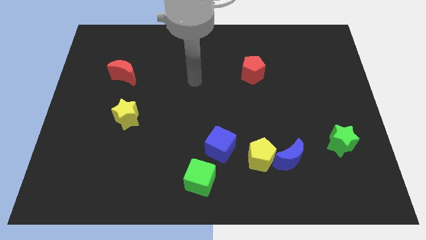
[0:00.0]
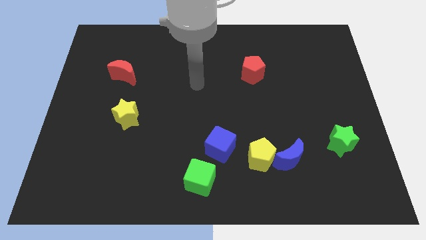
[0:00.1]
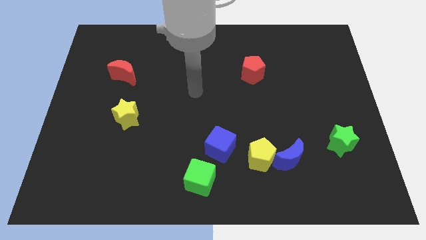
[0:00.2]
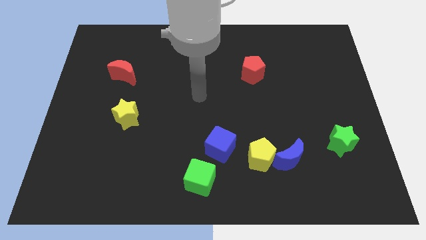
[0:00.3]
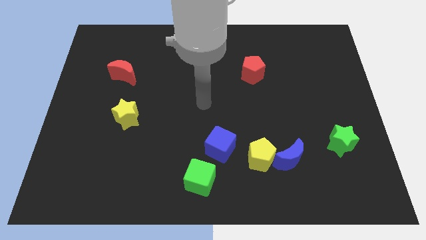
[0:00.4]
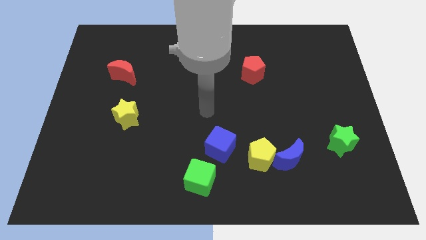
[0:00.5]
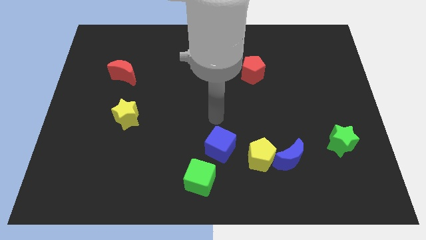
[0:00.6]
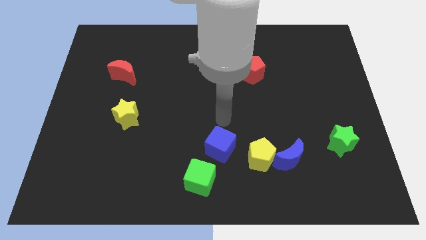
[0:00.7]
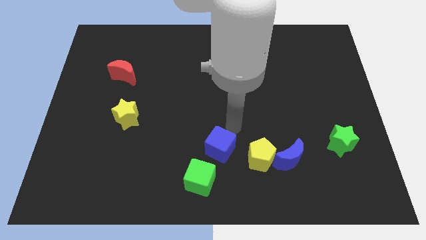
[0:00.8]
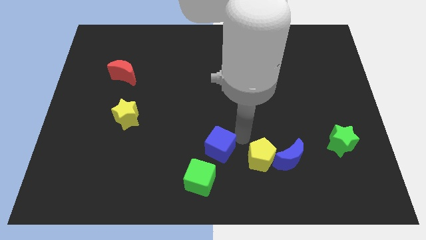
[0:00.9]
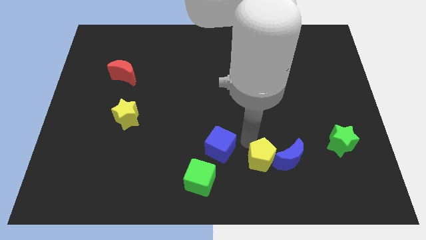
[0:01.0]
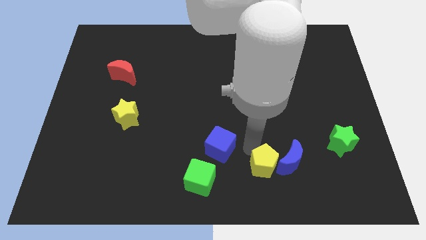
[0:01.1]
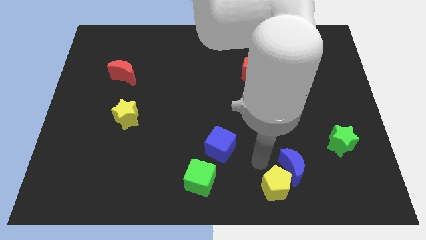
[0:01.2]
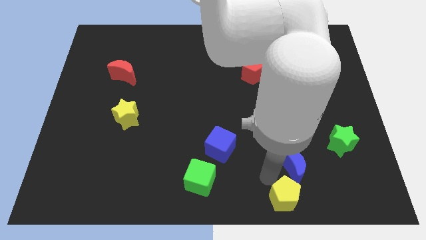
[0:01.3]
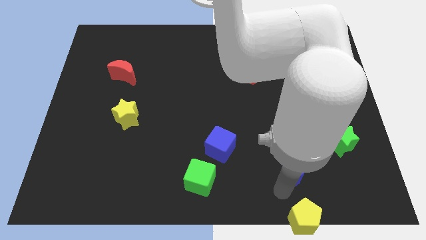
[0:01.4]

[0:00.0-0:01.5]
separate the blue moon from the yellow pentagon

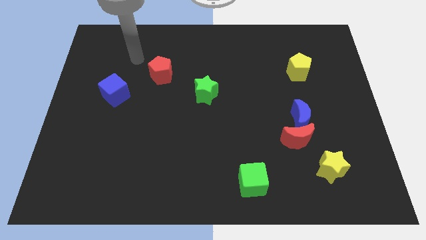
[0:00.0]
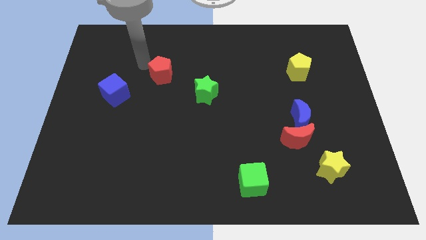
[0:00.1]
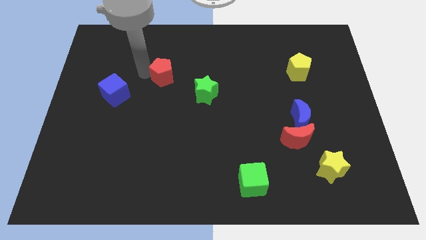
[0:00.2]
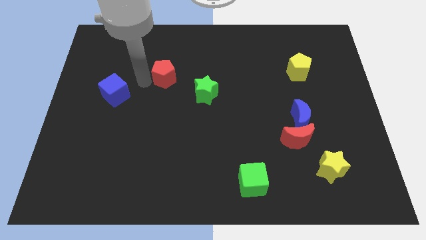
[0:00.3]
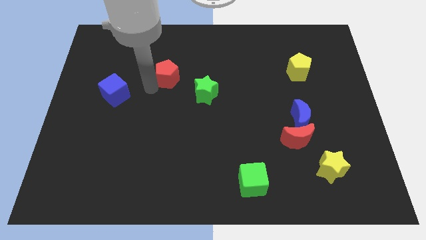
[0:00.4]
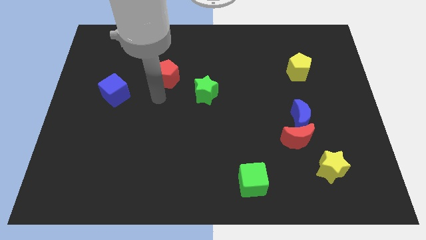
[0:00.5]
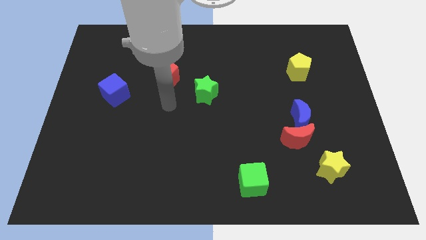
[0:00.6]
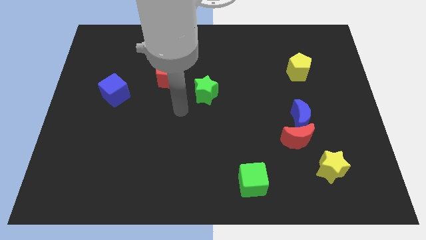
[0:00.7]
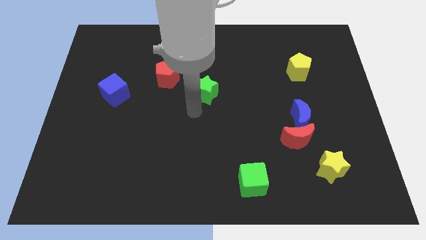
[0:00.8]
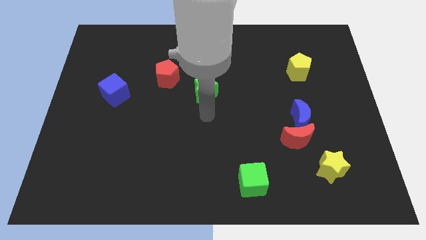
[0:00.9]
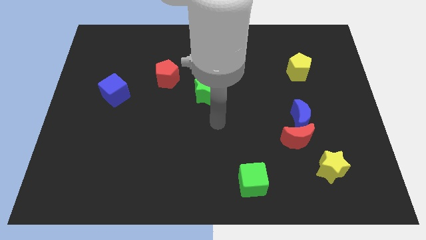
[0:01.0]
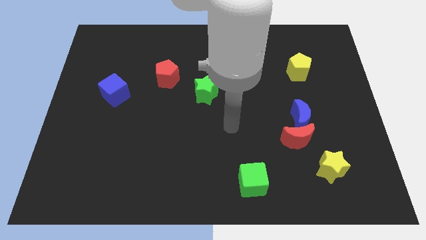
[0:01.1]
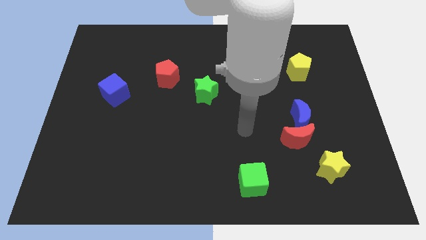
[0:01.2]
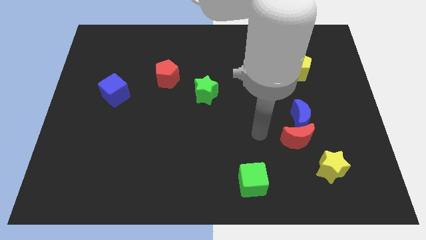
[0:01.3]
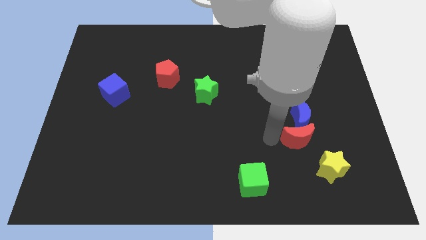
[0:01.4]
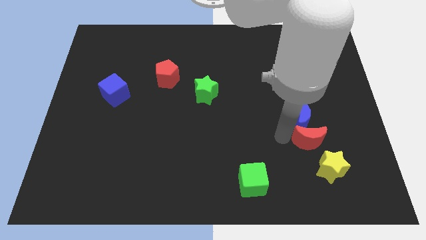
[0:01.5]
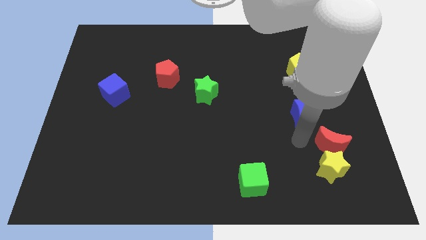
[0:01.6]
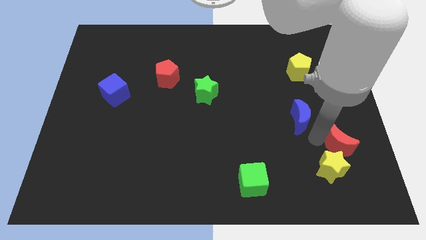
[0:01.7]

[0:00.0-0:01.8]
pull the blue moon apart from the red moon

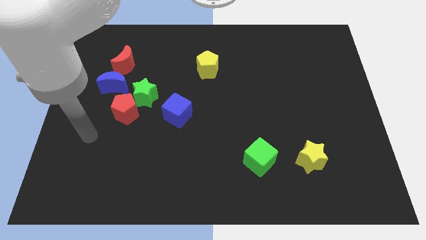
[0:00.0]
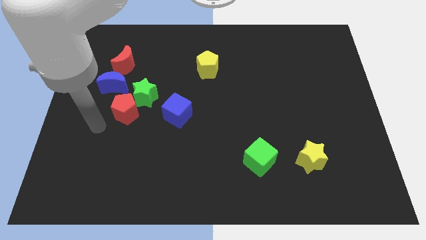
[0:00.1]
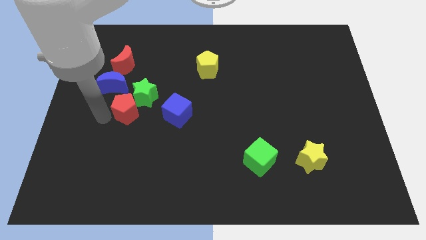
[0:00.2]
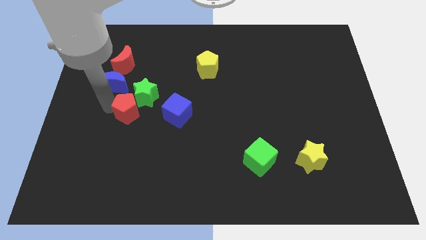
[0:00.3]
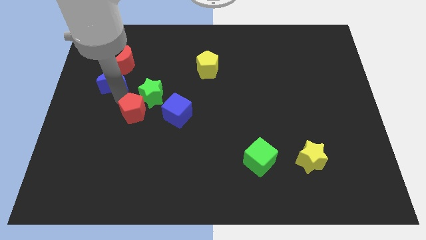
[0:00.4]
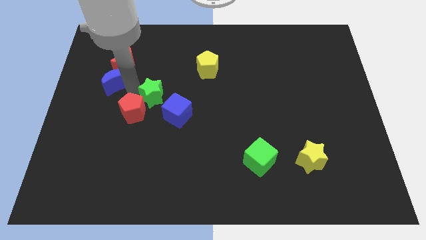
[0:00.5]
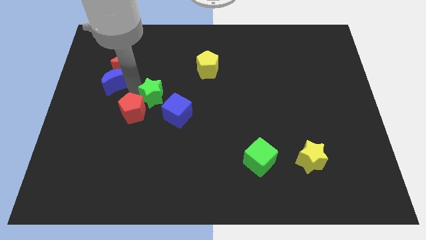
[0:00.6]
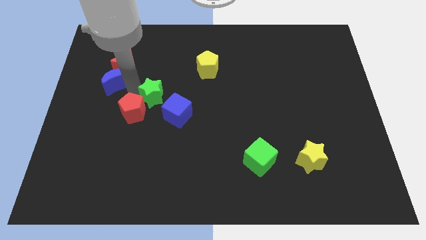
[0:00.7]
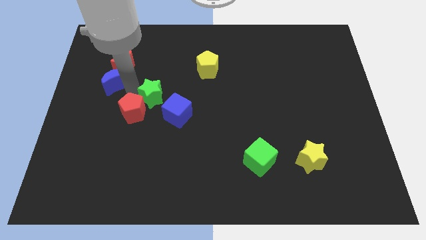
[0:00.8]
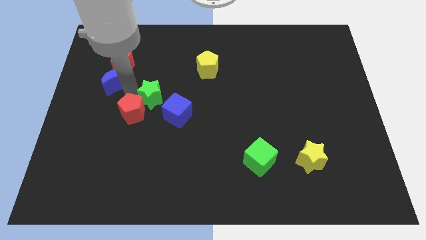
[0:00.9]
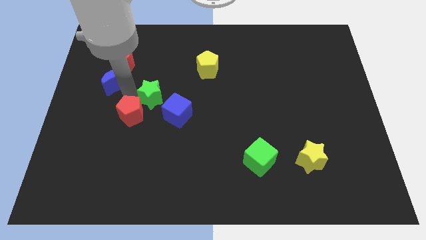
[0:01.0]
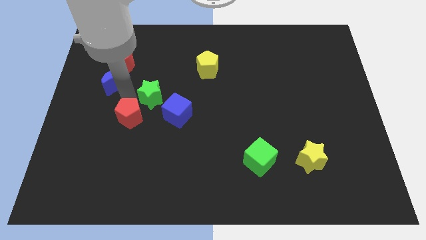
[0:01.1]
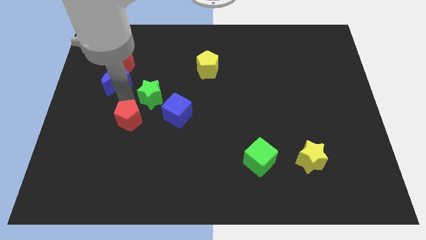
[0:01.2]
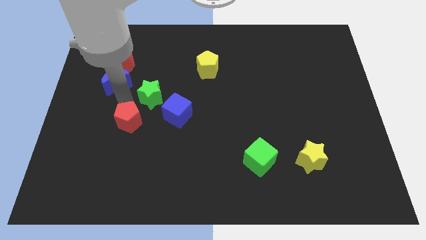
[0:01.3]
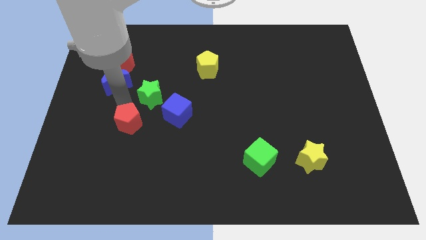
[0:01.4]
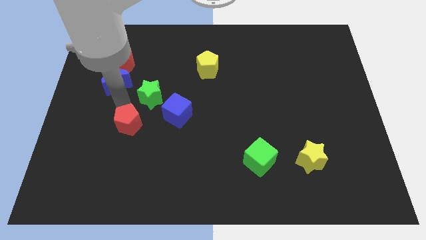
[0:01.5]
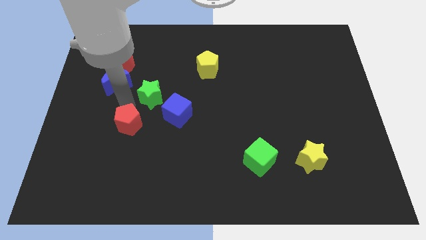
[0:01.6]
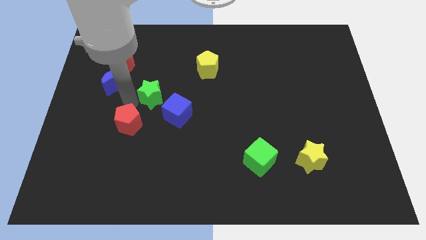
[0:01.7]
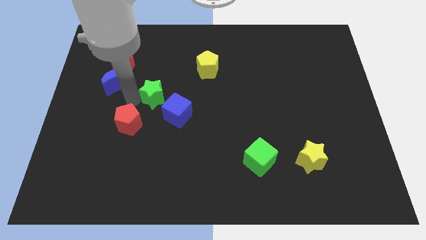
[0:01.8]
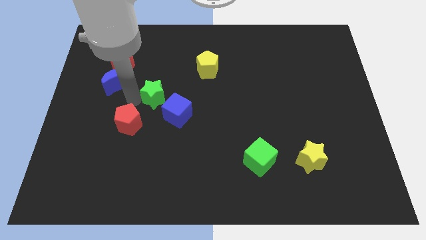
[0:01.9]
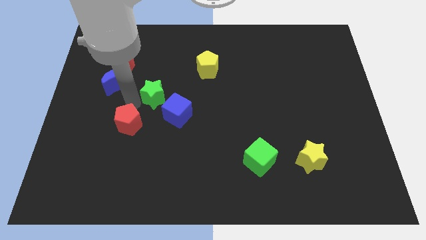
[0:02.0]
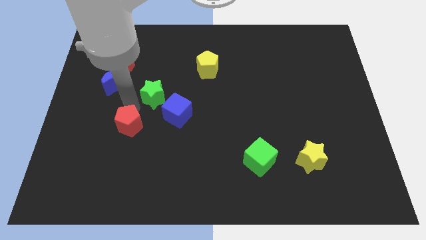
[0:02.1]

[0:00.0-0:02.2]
move the red pentagon away from the green star and blue moon

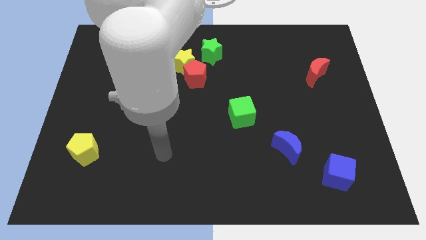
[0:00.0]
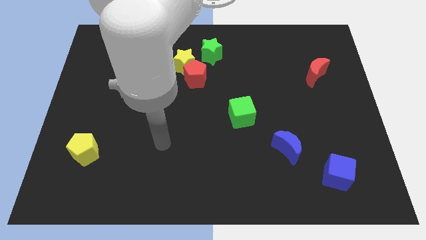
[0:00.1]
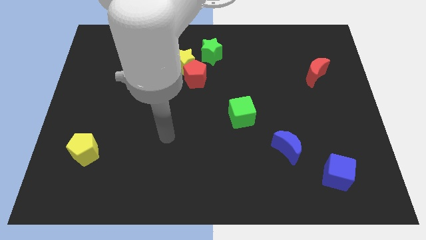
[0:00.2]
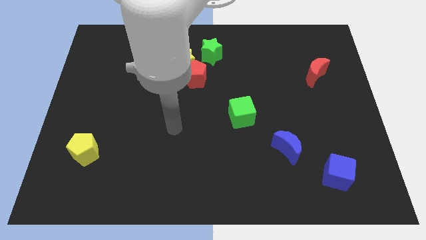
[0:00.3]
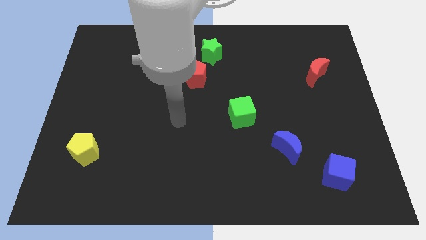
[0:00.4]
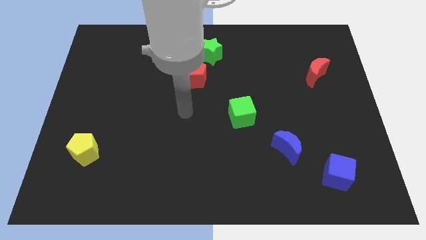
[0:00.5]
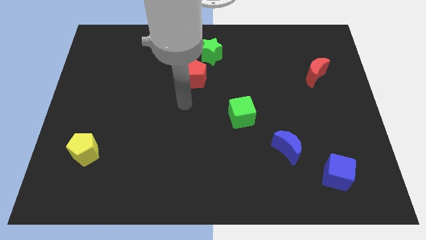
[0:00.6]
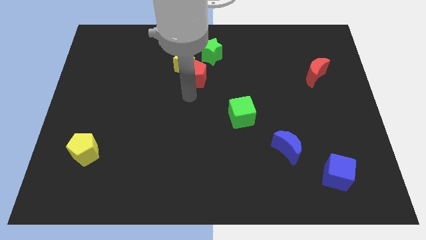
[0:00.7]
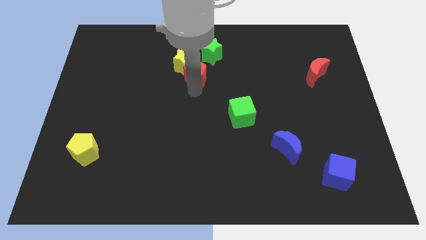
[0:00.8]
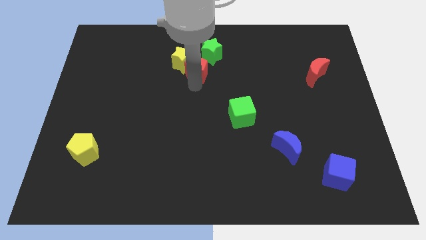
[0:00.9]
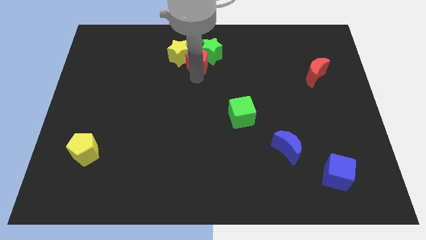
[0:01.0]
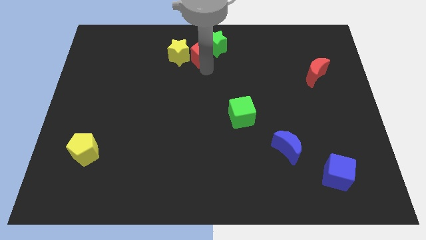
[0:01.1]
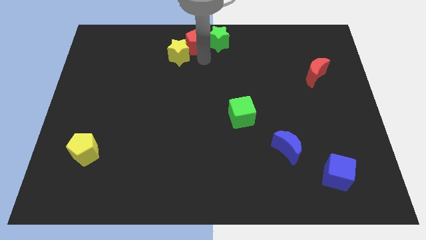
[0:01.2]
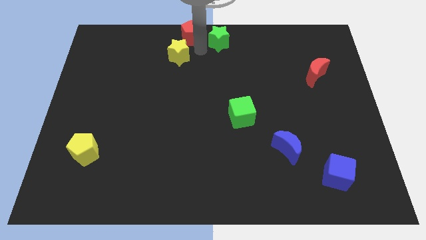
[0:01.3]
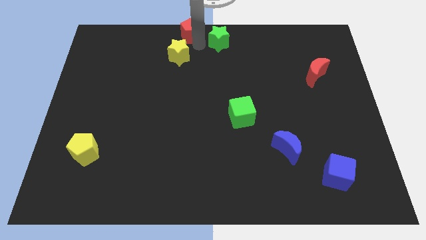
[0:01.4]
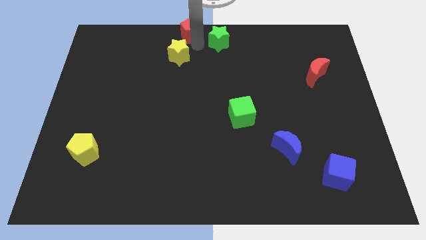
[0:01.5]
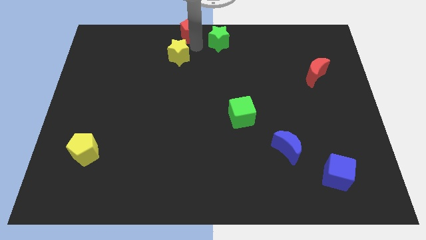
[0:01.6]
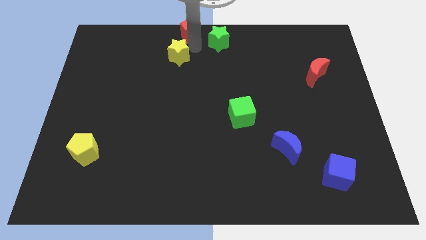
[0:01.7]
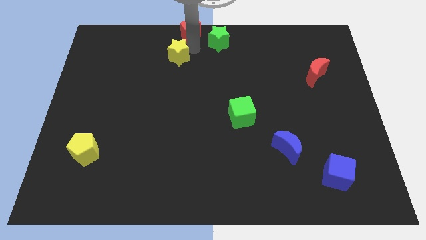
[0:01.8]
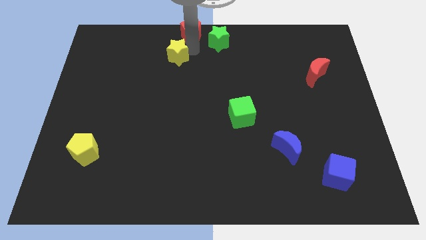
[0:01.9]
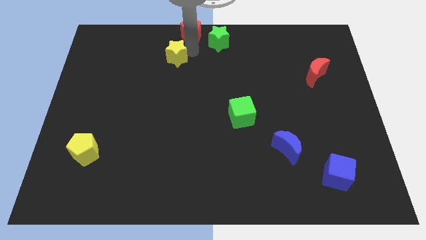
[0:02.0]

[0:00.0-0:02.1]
pull the yellow star apart from the red pentagon and green star

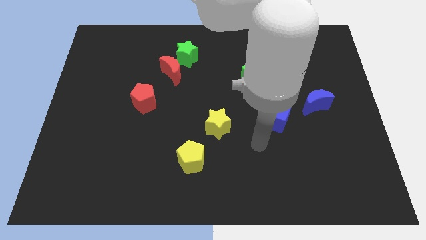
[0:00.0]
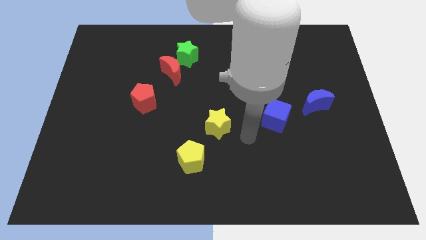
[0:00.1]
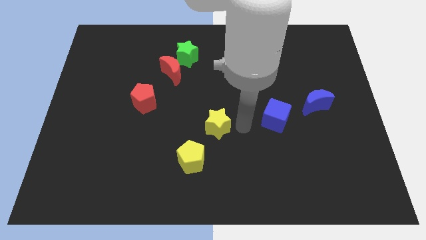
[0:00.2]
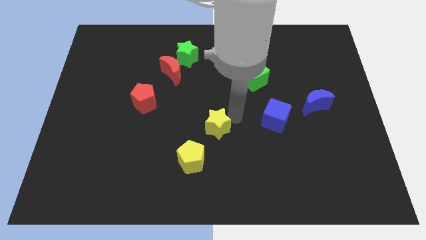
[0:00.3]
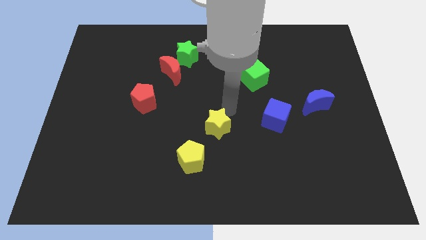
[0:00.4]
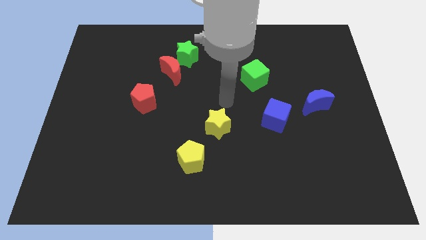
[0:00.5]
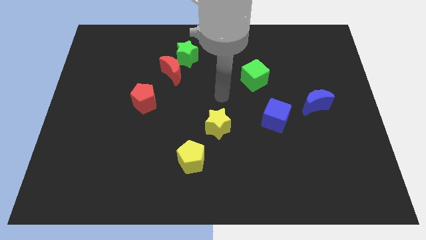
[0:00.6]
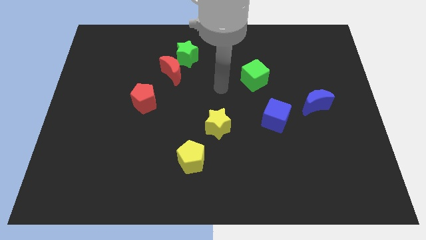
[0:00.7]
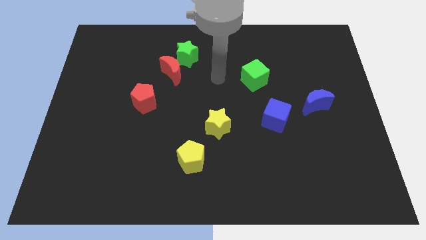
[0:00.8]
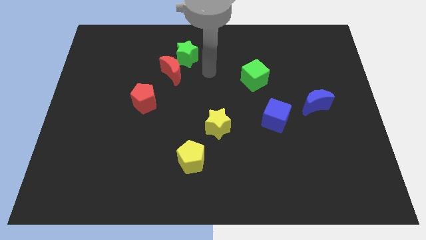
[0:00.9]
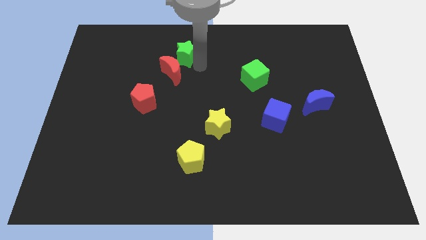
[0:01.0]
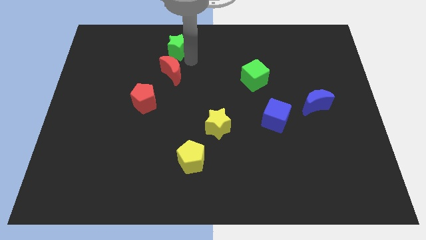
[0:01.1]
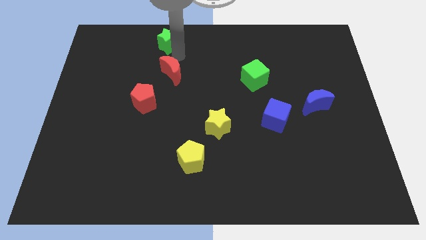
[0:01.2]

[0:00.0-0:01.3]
move the red moon away from the green star

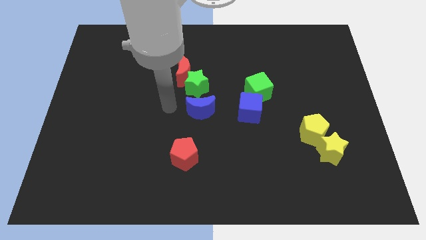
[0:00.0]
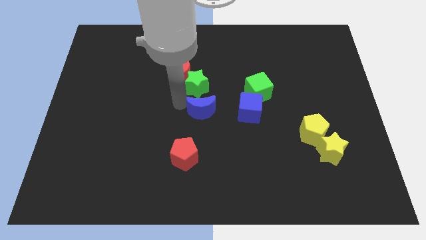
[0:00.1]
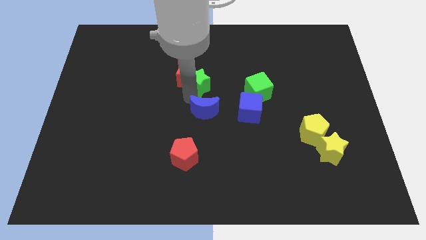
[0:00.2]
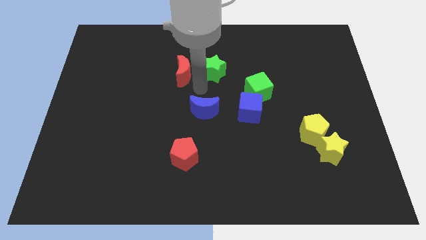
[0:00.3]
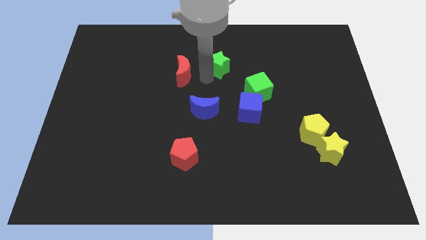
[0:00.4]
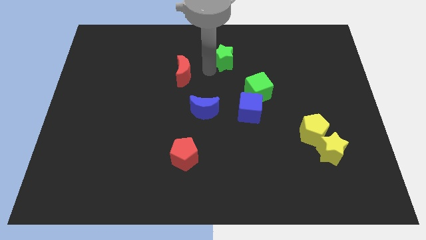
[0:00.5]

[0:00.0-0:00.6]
separate the red moon from the green star
